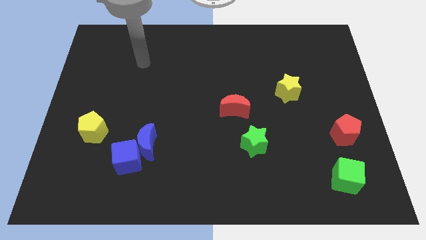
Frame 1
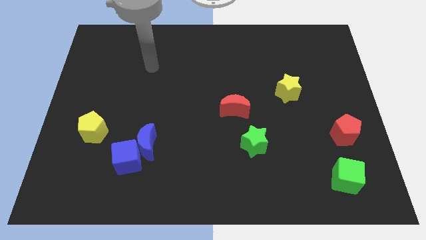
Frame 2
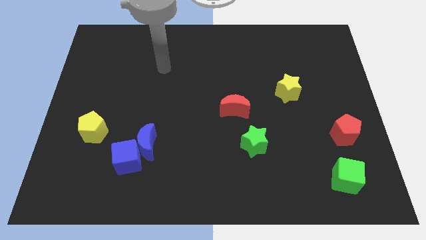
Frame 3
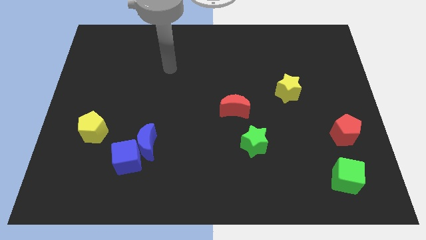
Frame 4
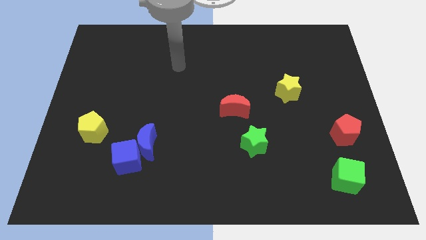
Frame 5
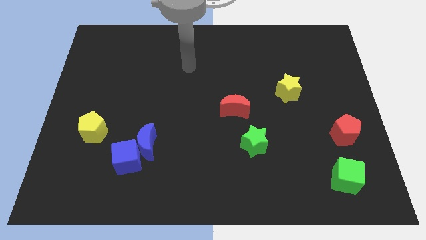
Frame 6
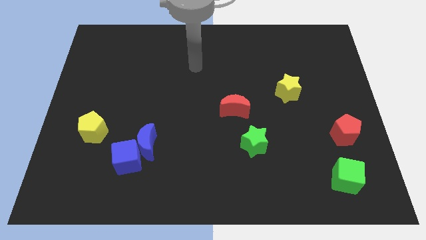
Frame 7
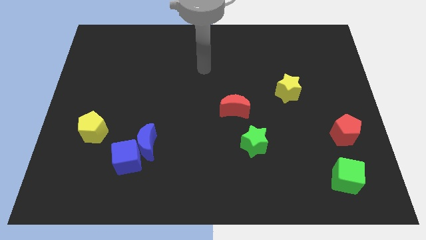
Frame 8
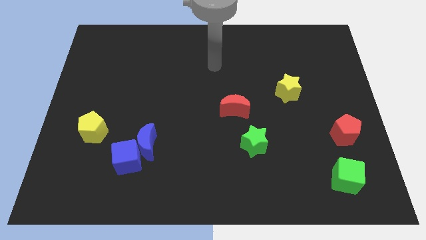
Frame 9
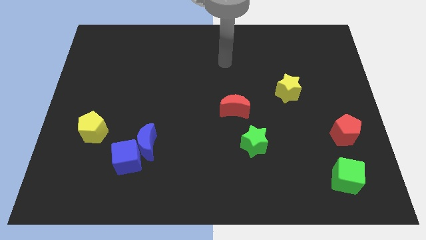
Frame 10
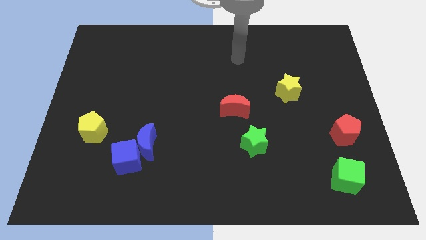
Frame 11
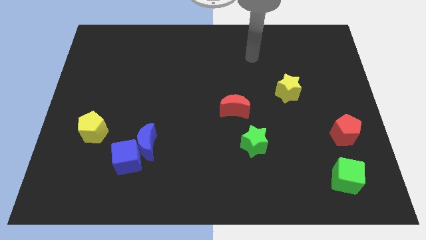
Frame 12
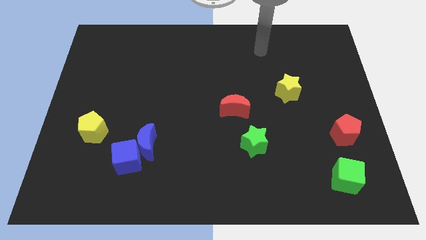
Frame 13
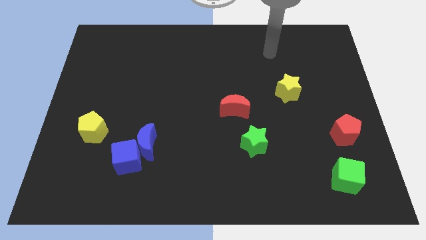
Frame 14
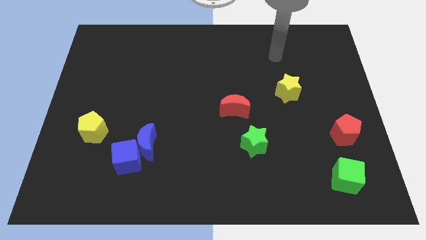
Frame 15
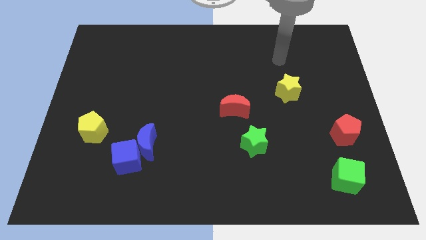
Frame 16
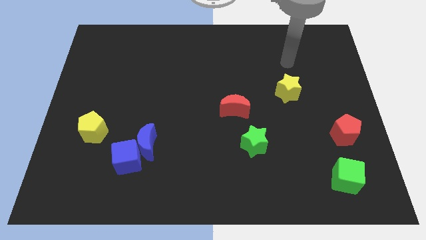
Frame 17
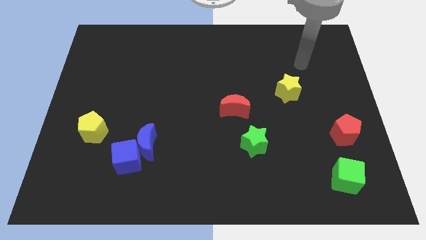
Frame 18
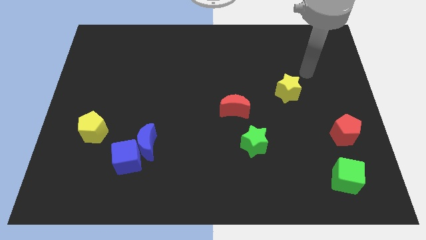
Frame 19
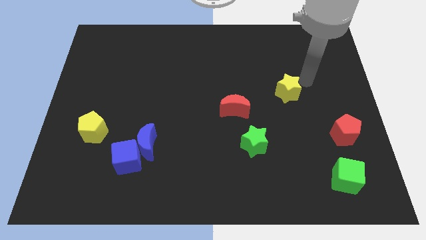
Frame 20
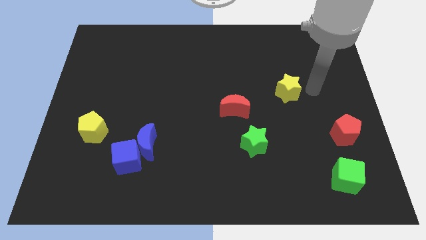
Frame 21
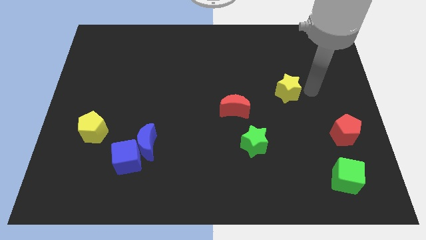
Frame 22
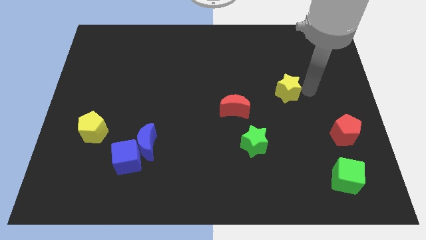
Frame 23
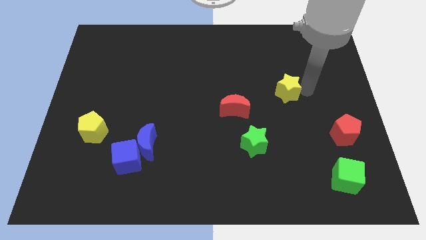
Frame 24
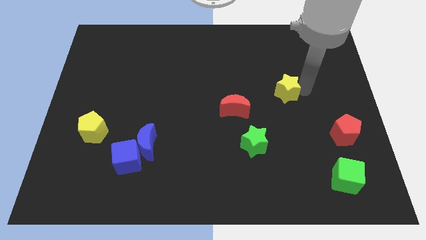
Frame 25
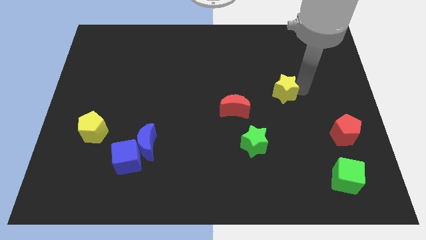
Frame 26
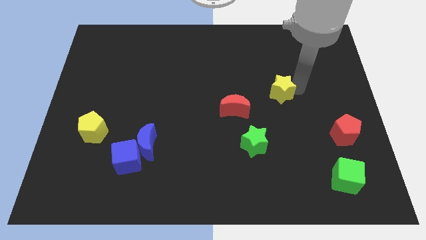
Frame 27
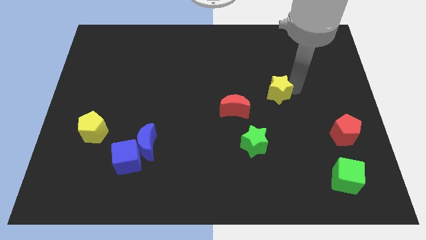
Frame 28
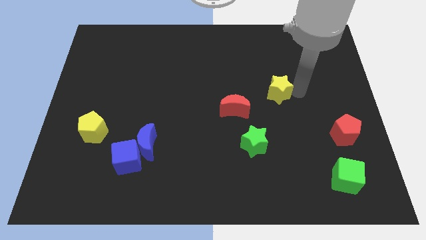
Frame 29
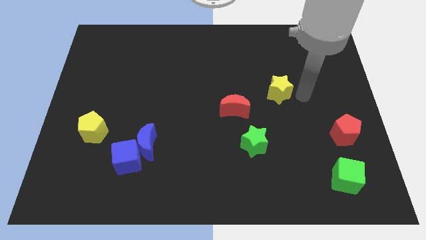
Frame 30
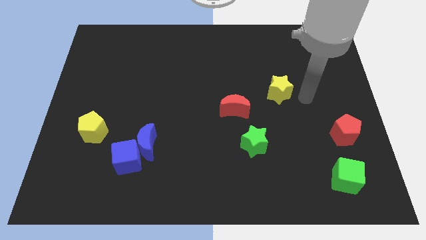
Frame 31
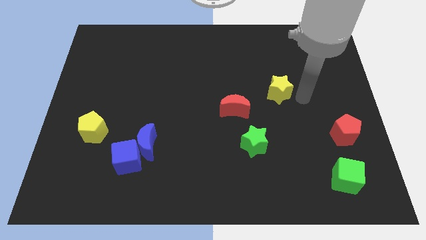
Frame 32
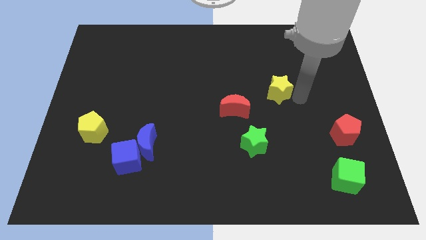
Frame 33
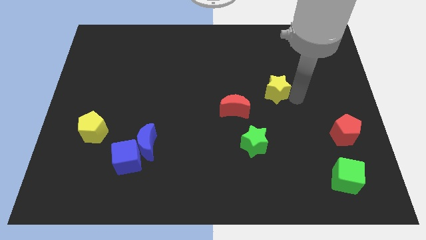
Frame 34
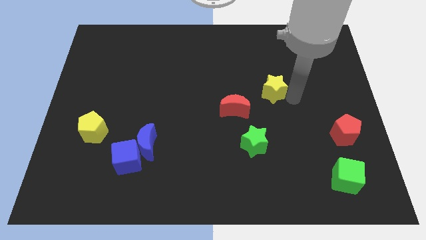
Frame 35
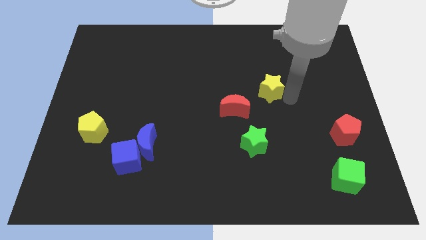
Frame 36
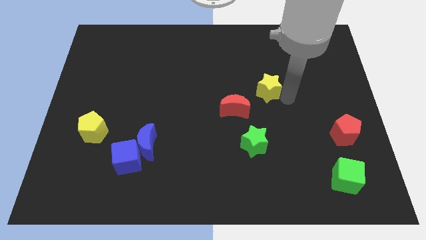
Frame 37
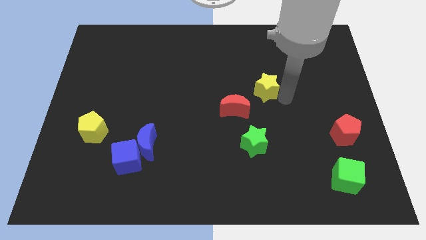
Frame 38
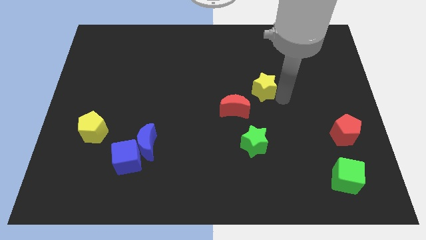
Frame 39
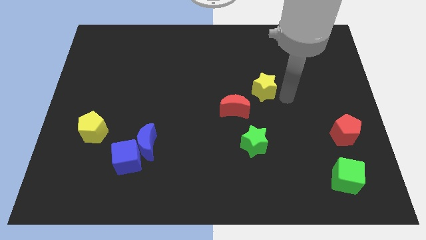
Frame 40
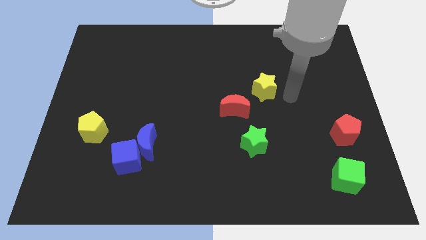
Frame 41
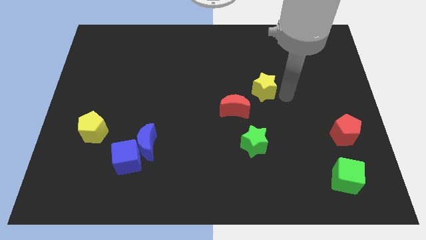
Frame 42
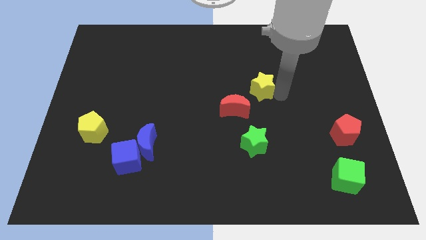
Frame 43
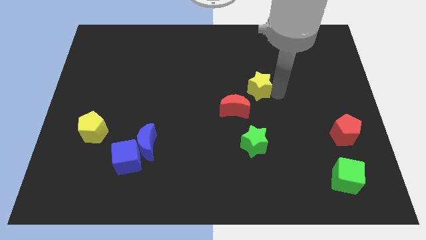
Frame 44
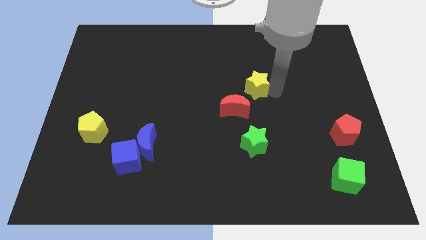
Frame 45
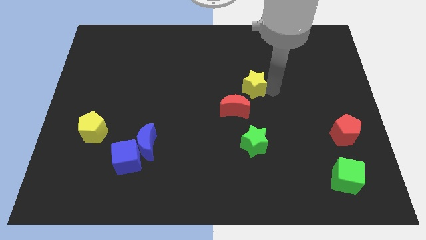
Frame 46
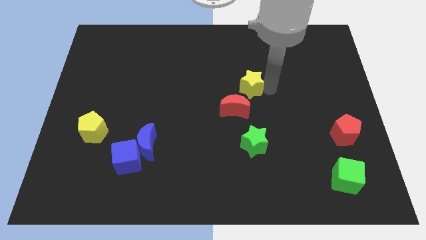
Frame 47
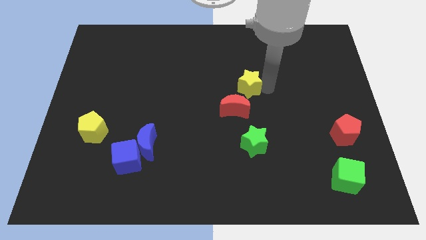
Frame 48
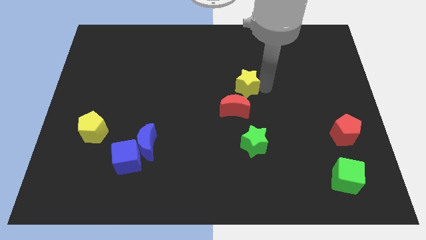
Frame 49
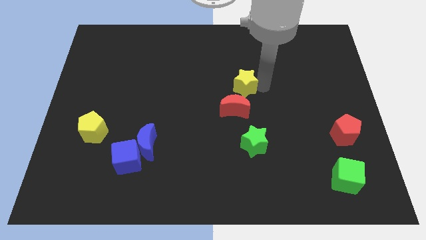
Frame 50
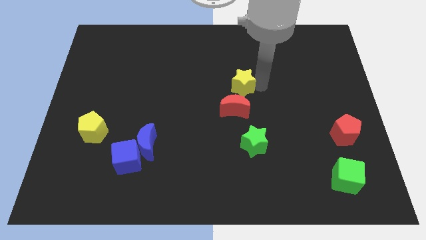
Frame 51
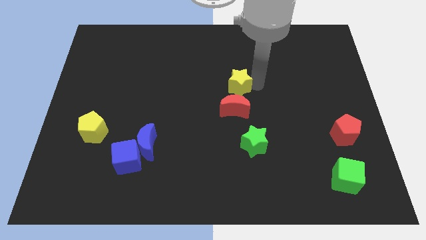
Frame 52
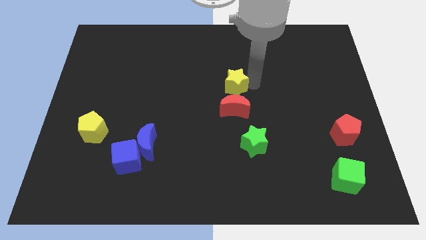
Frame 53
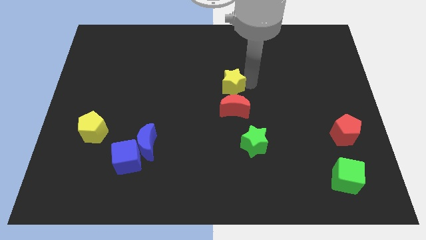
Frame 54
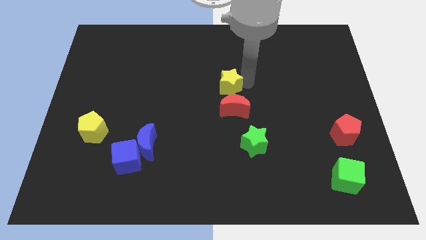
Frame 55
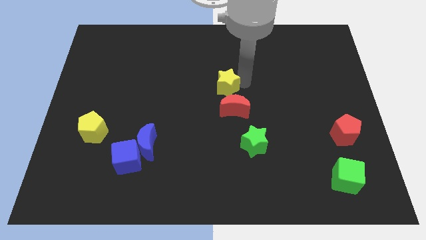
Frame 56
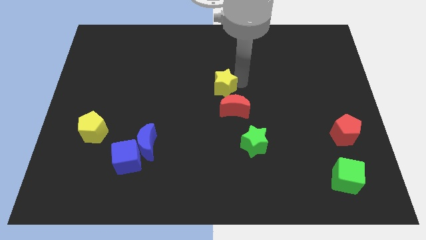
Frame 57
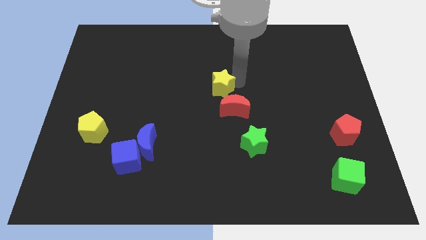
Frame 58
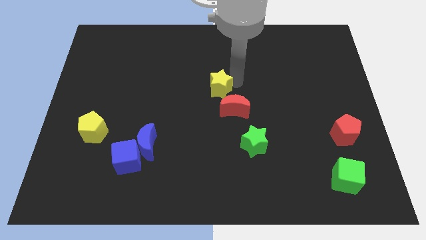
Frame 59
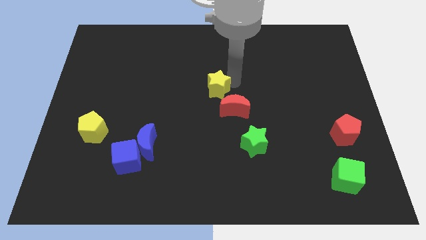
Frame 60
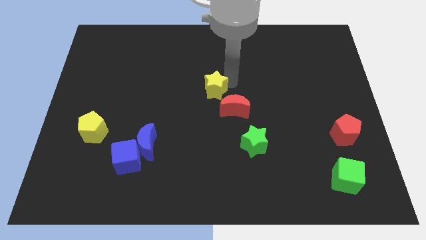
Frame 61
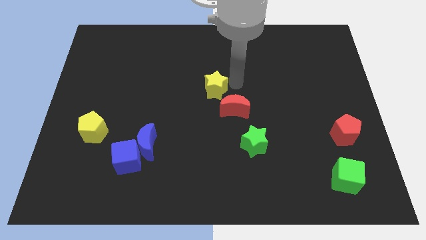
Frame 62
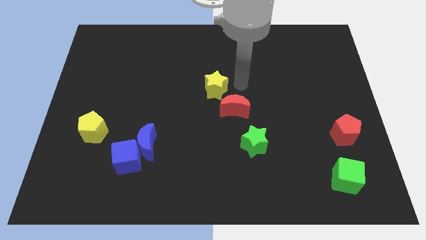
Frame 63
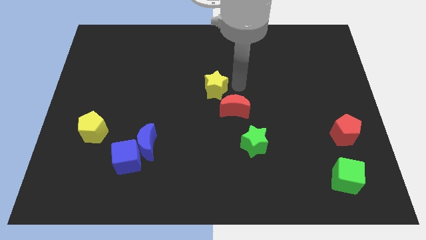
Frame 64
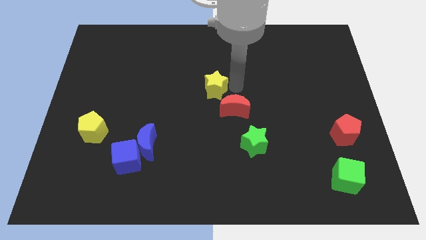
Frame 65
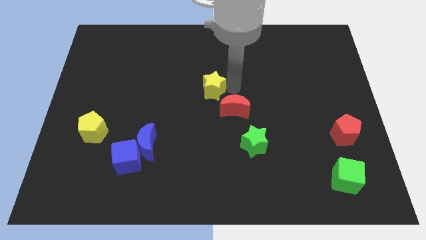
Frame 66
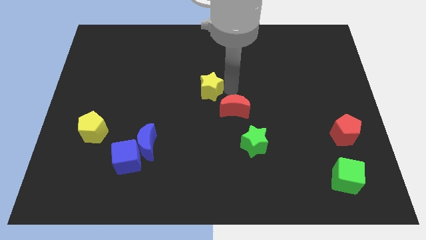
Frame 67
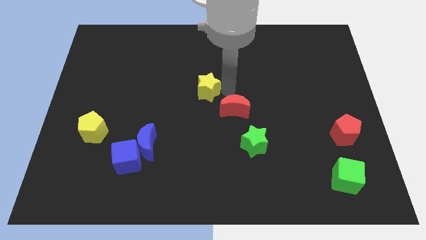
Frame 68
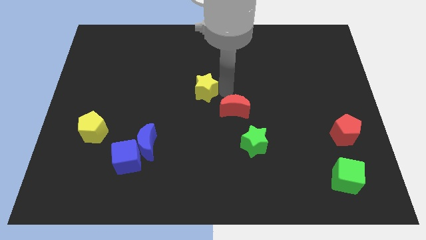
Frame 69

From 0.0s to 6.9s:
push the yellow star to the left

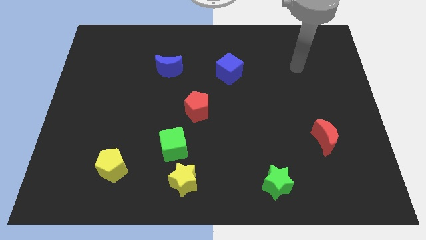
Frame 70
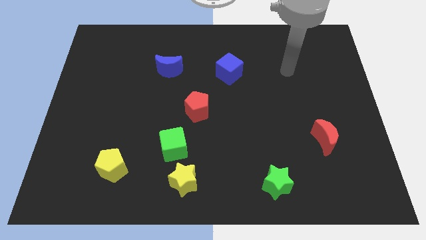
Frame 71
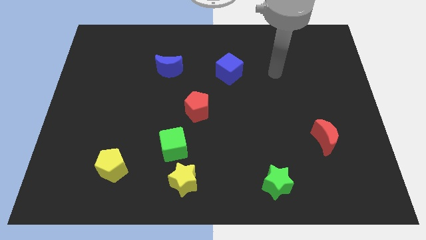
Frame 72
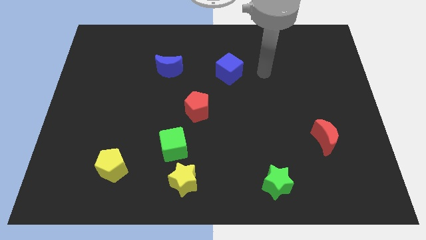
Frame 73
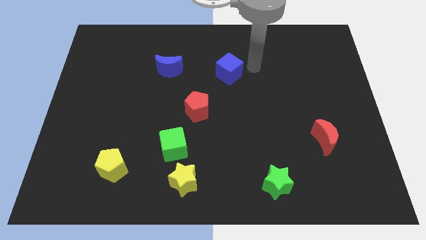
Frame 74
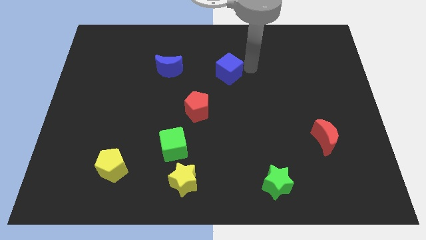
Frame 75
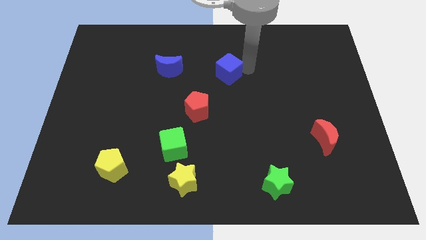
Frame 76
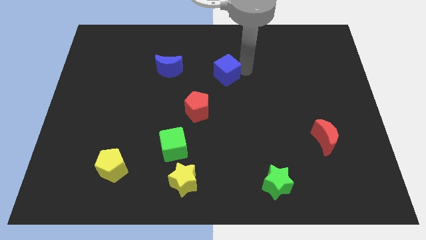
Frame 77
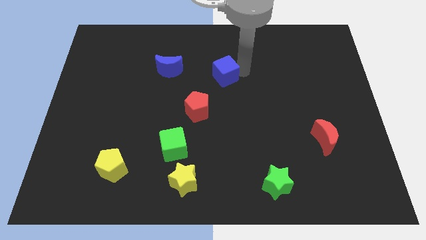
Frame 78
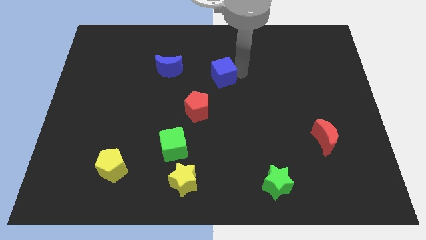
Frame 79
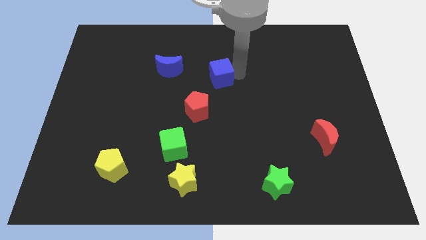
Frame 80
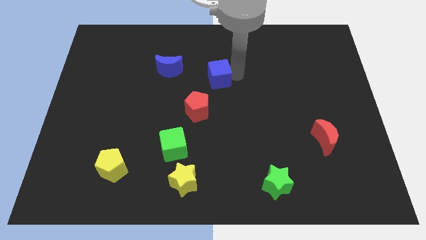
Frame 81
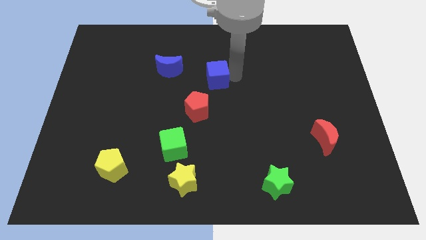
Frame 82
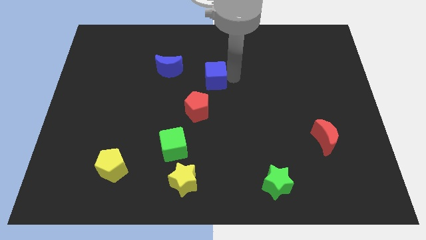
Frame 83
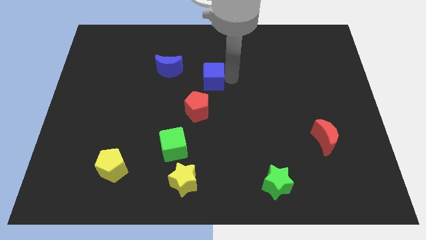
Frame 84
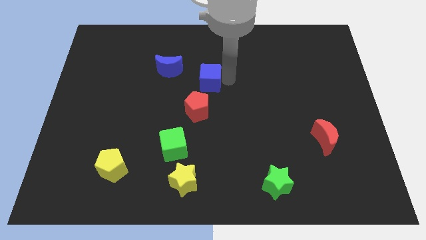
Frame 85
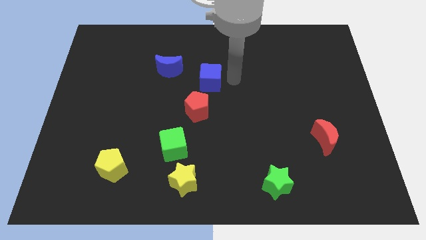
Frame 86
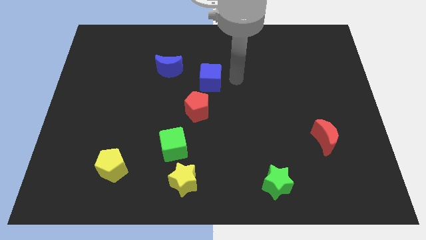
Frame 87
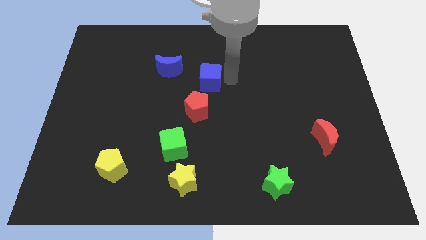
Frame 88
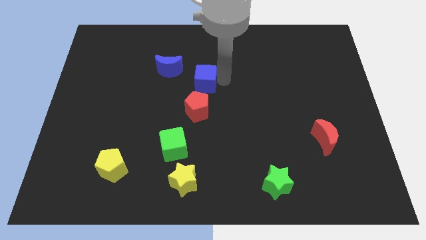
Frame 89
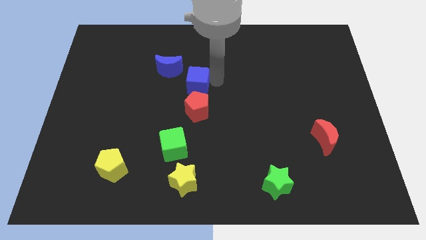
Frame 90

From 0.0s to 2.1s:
move the blue cube left somewhat
